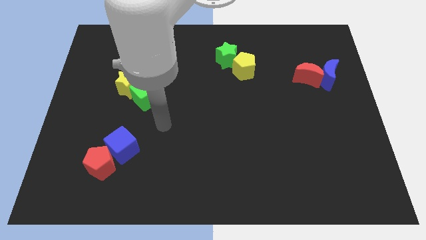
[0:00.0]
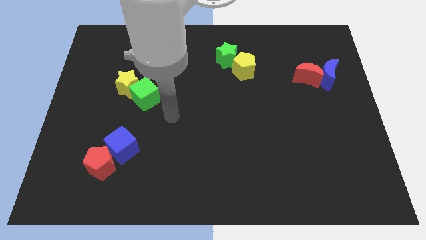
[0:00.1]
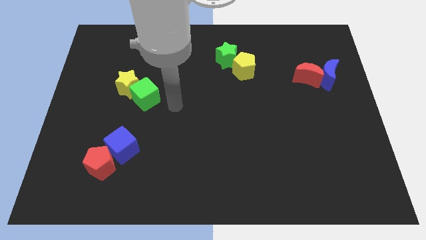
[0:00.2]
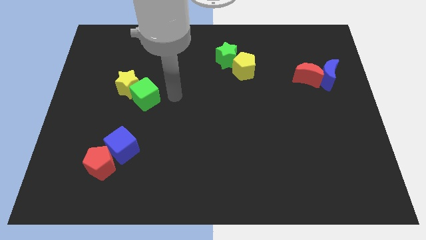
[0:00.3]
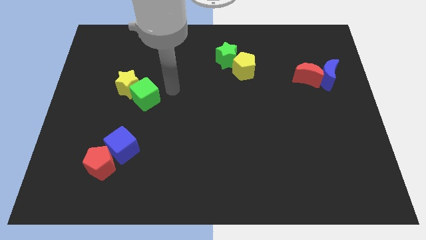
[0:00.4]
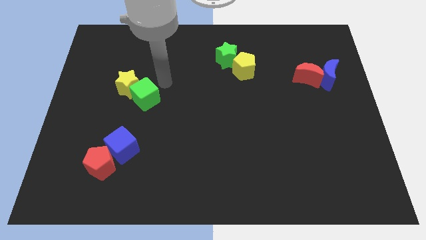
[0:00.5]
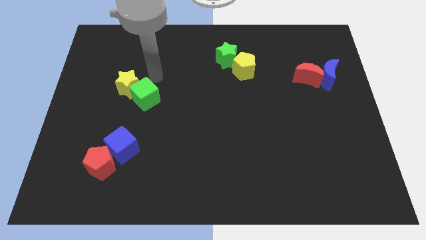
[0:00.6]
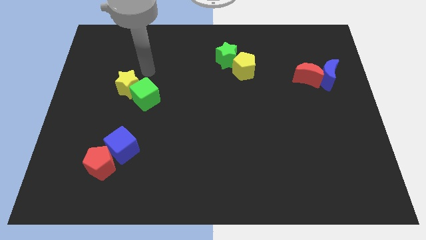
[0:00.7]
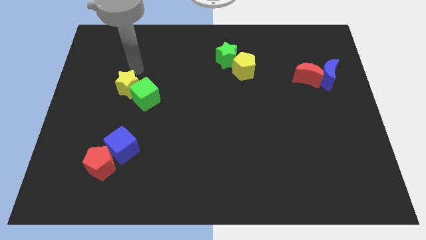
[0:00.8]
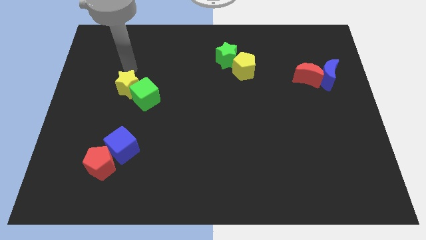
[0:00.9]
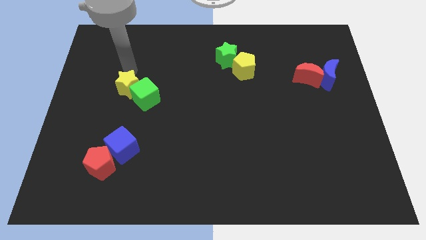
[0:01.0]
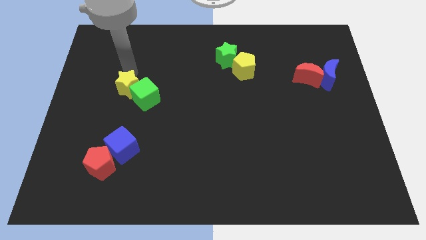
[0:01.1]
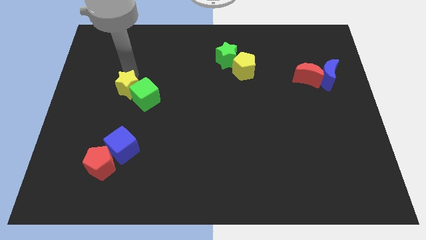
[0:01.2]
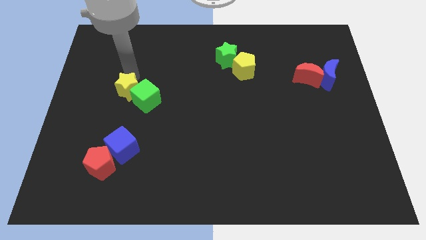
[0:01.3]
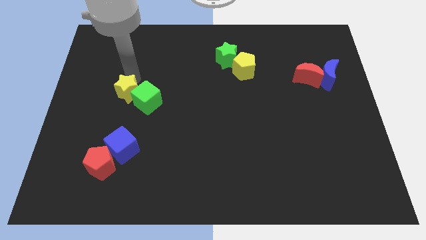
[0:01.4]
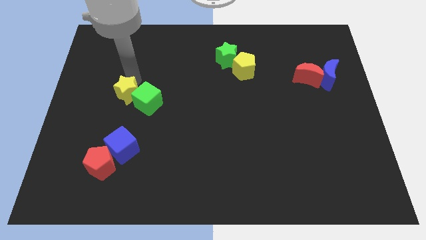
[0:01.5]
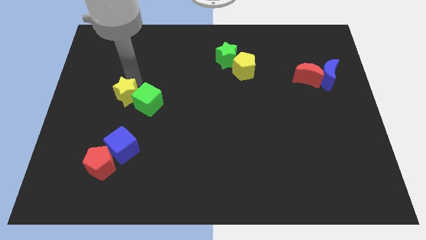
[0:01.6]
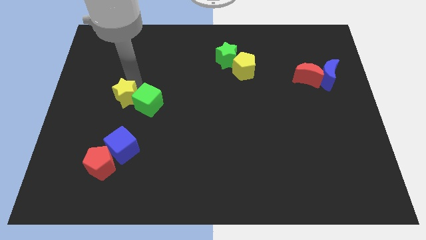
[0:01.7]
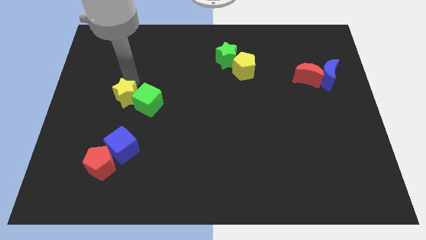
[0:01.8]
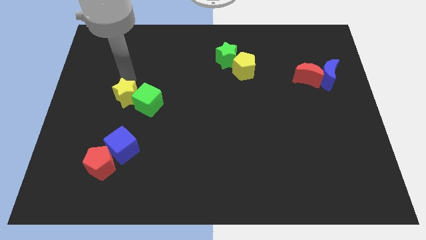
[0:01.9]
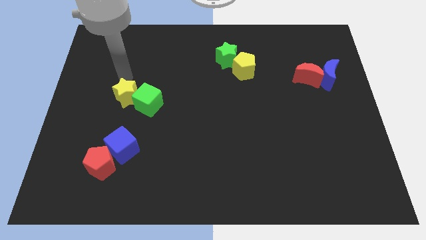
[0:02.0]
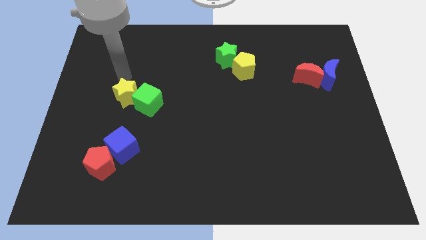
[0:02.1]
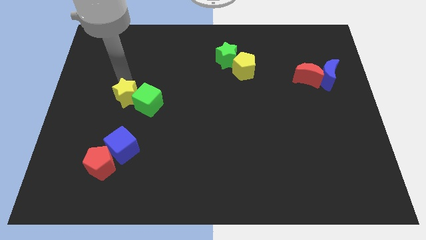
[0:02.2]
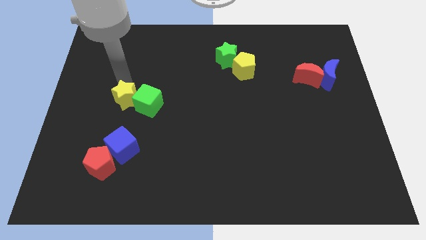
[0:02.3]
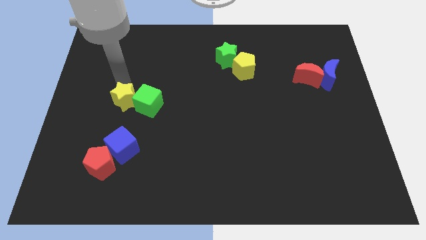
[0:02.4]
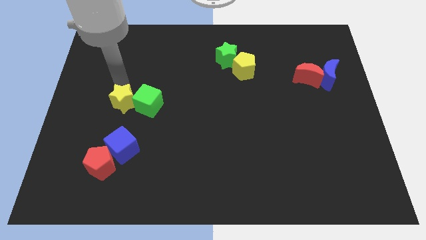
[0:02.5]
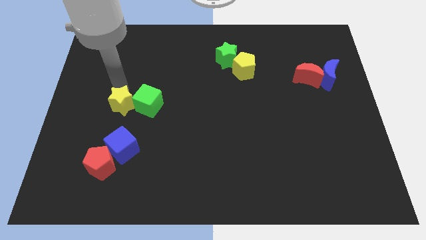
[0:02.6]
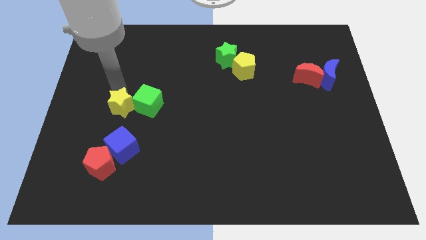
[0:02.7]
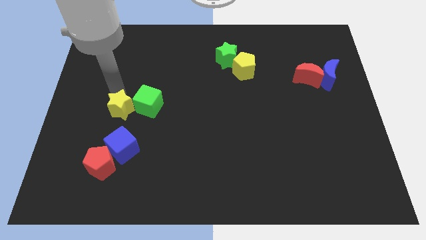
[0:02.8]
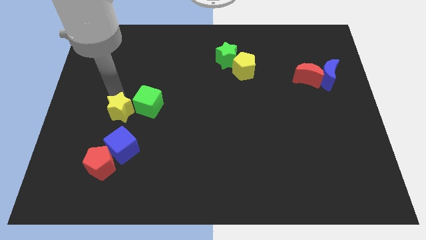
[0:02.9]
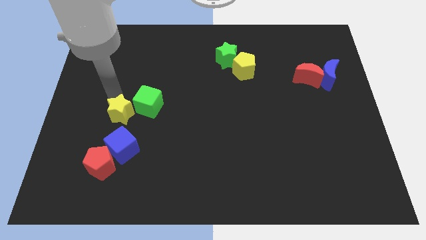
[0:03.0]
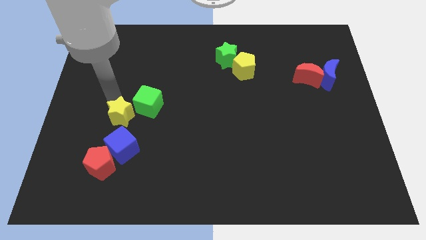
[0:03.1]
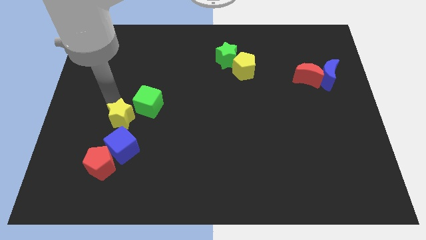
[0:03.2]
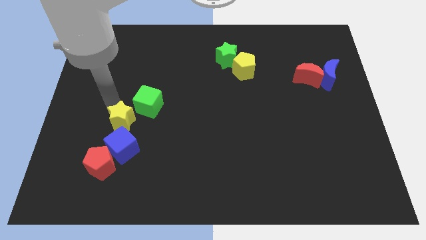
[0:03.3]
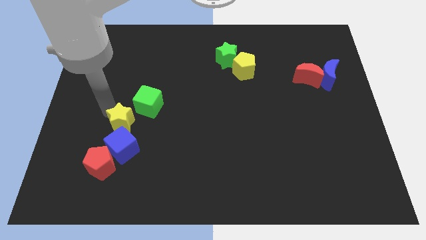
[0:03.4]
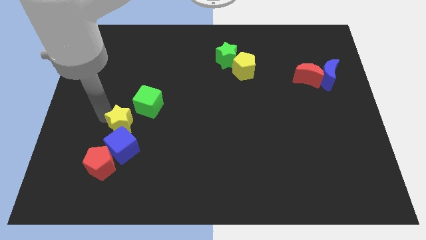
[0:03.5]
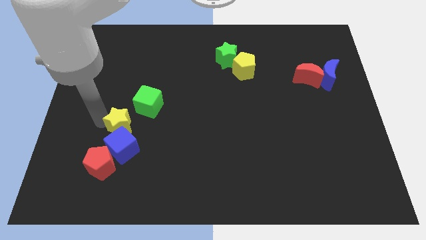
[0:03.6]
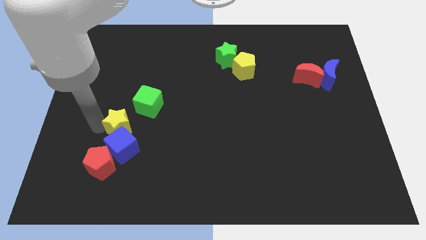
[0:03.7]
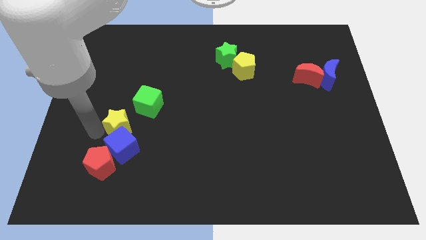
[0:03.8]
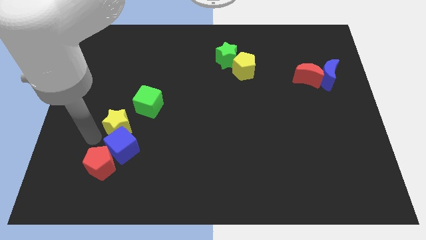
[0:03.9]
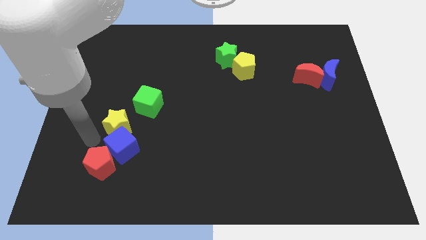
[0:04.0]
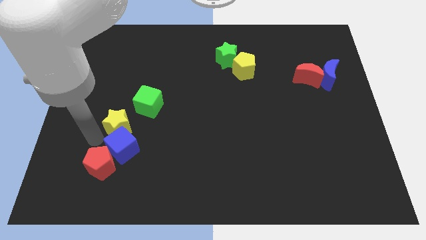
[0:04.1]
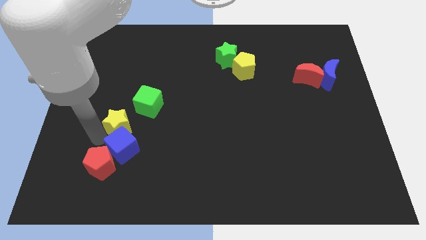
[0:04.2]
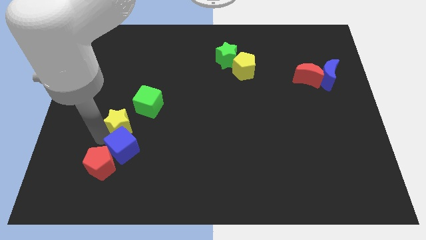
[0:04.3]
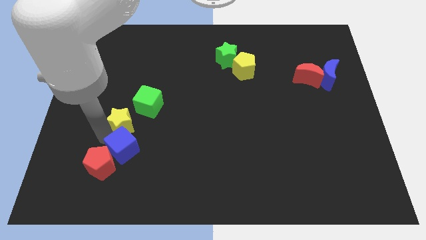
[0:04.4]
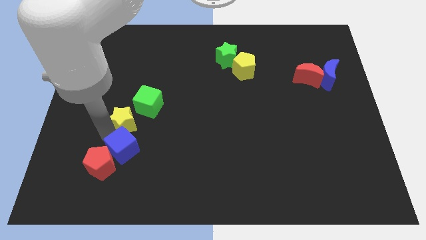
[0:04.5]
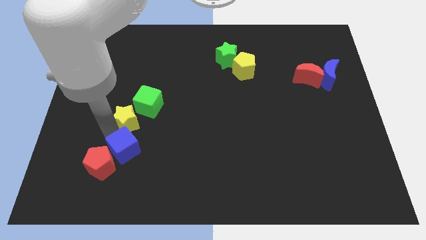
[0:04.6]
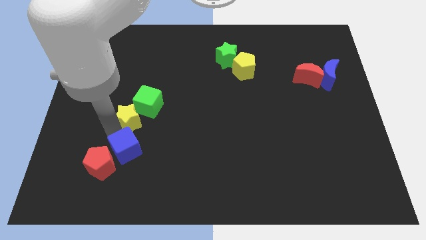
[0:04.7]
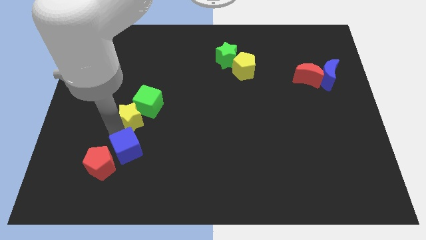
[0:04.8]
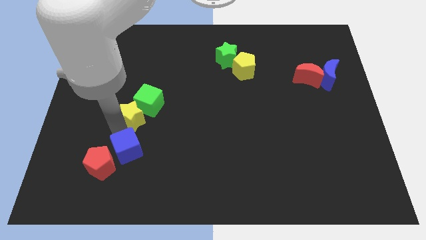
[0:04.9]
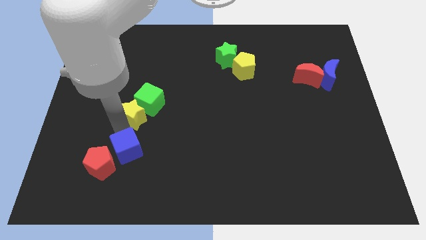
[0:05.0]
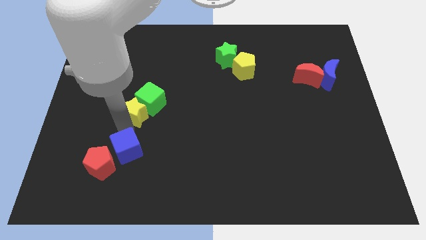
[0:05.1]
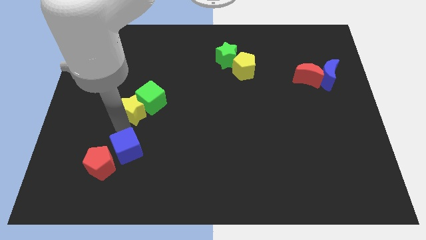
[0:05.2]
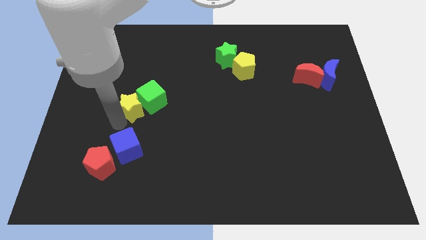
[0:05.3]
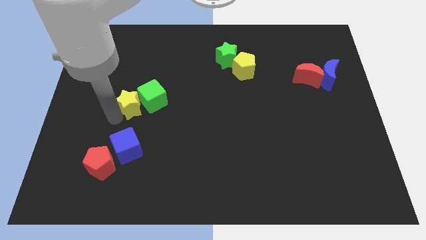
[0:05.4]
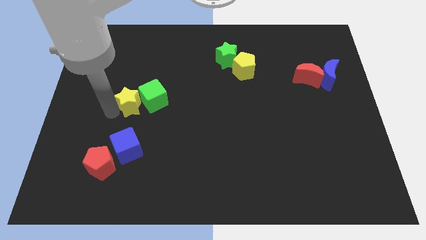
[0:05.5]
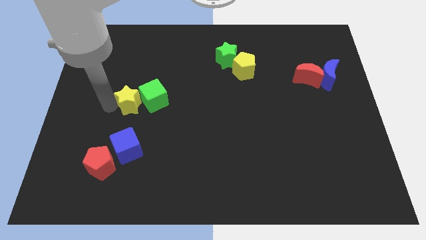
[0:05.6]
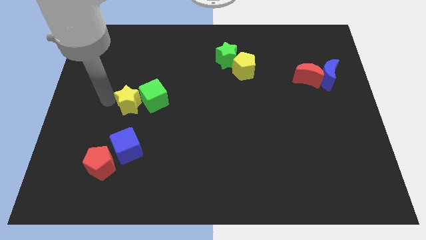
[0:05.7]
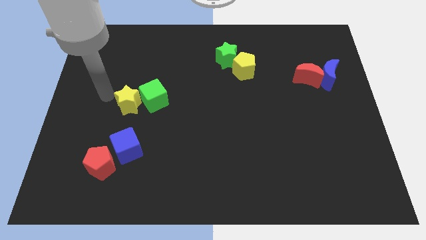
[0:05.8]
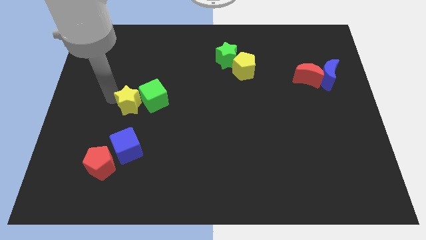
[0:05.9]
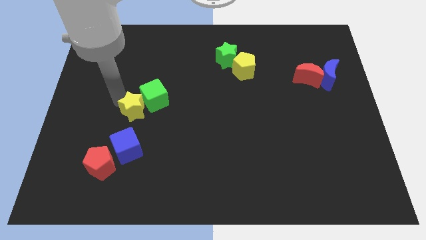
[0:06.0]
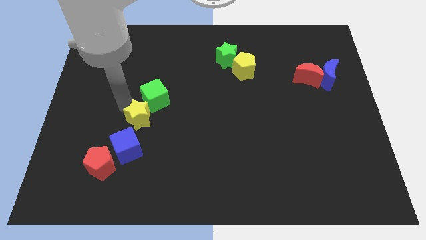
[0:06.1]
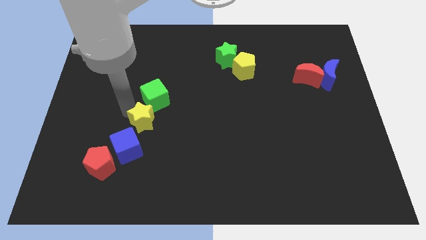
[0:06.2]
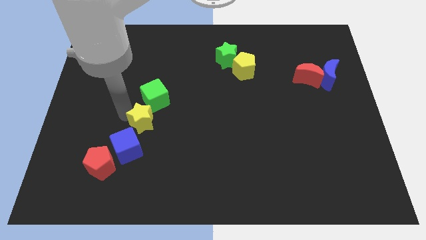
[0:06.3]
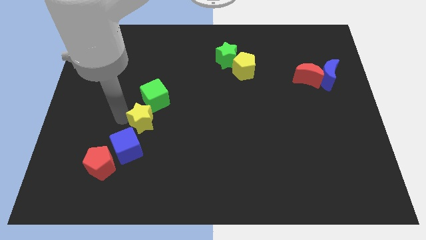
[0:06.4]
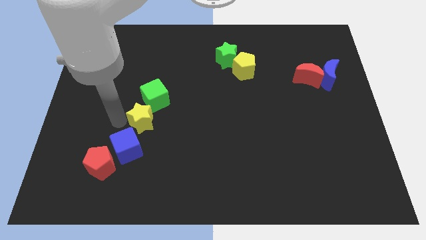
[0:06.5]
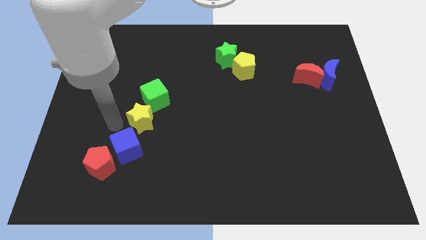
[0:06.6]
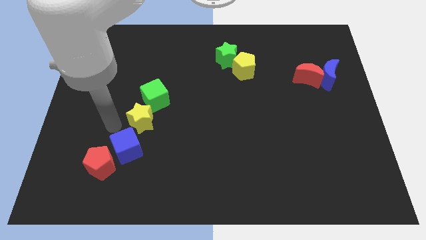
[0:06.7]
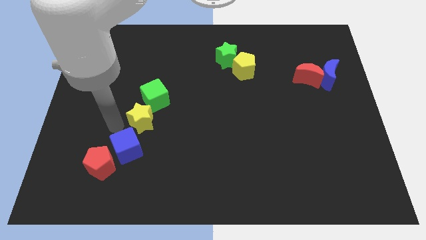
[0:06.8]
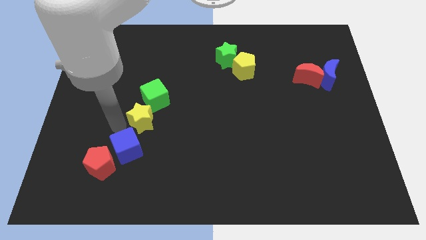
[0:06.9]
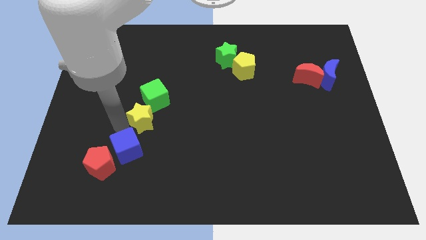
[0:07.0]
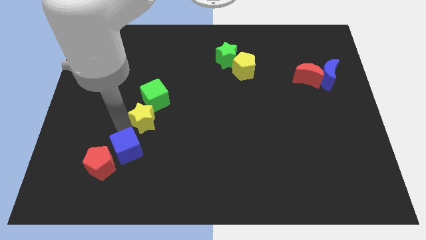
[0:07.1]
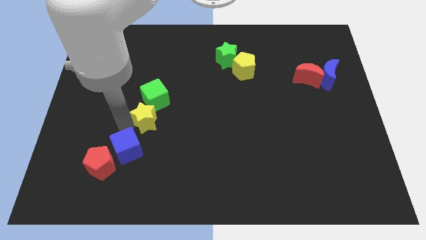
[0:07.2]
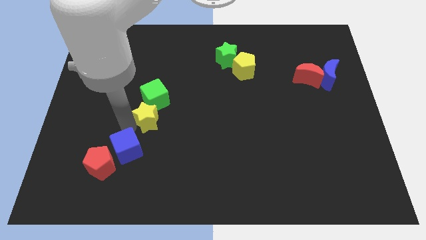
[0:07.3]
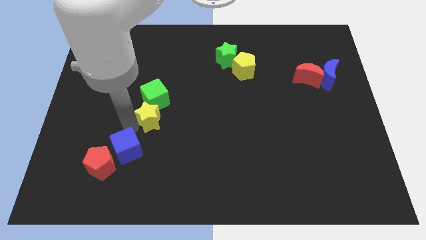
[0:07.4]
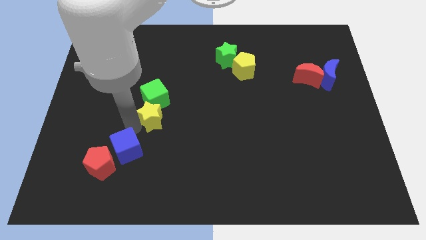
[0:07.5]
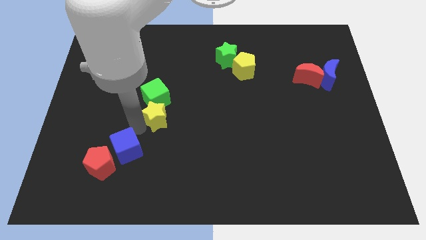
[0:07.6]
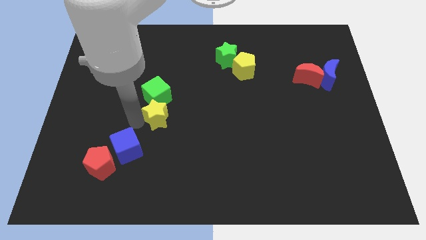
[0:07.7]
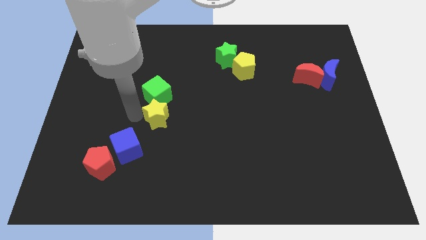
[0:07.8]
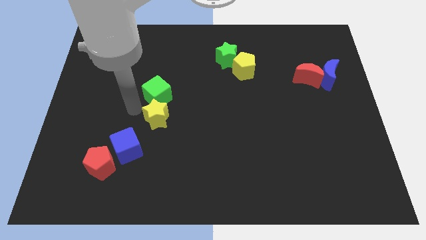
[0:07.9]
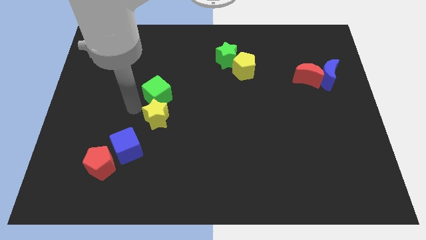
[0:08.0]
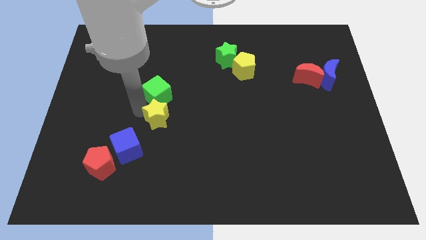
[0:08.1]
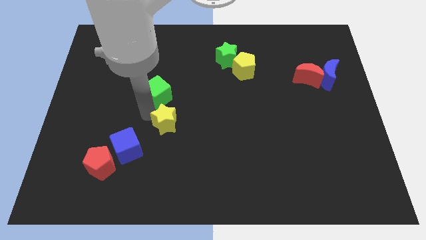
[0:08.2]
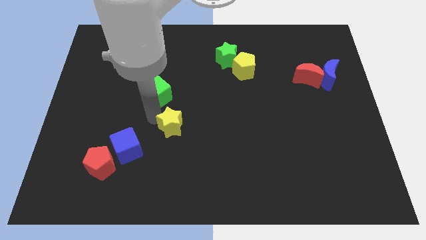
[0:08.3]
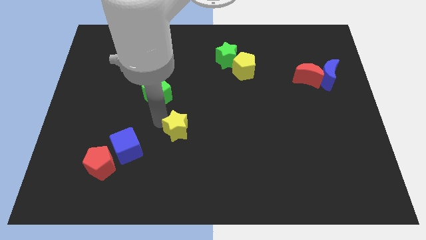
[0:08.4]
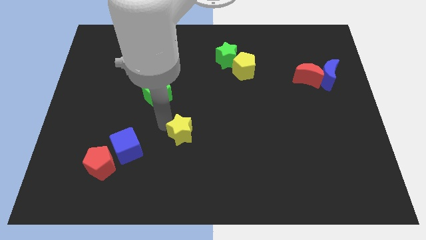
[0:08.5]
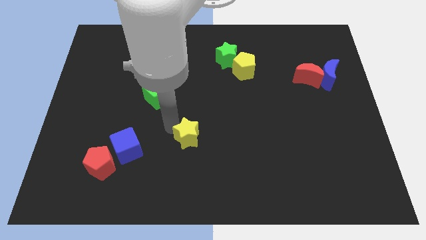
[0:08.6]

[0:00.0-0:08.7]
slide the yellow star downwards and right
